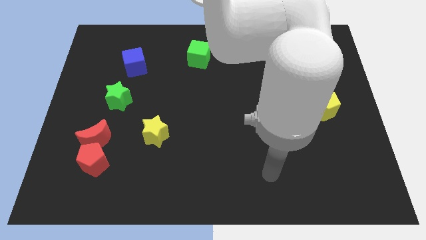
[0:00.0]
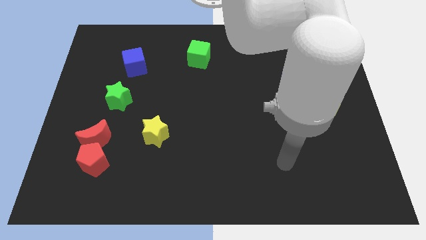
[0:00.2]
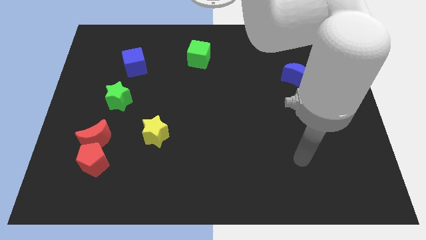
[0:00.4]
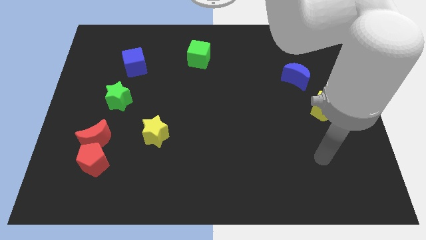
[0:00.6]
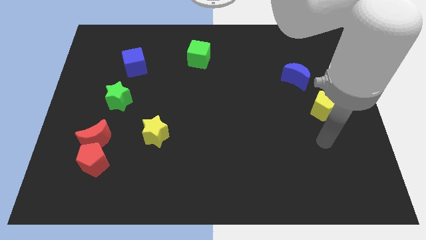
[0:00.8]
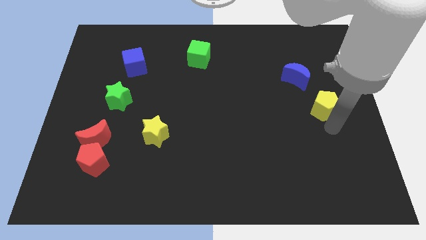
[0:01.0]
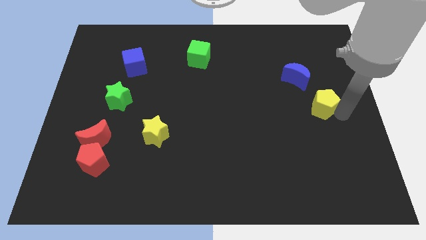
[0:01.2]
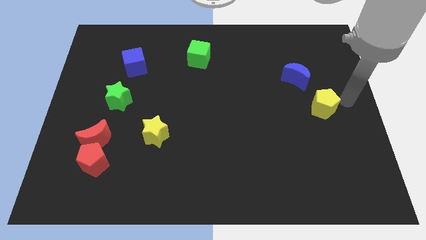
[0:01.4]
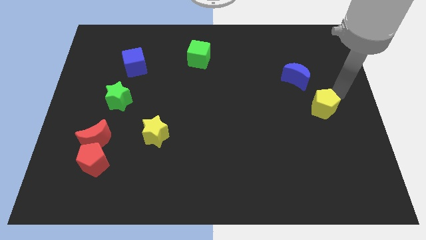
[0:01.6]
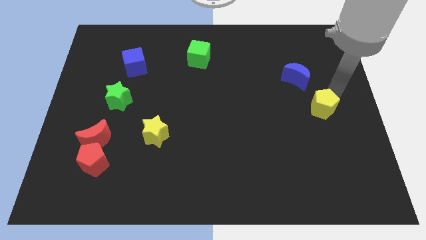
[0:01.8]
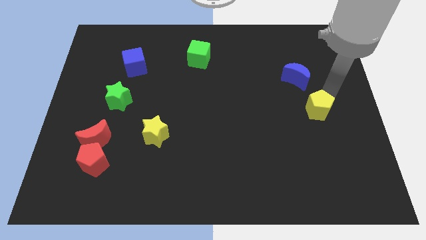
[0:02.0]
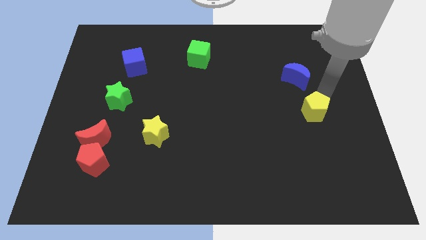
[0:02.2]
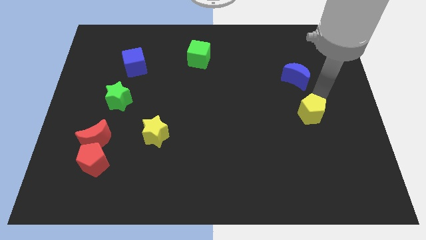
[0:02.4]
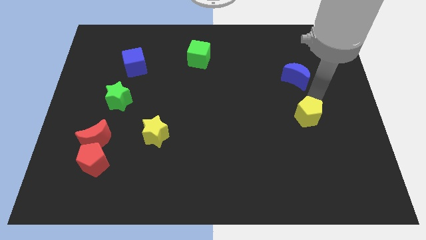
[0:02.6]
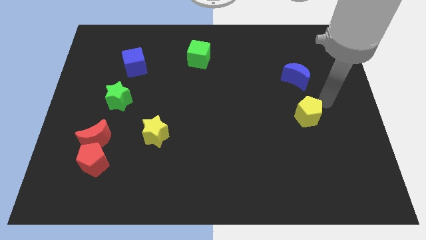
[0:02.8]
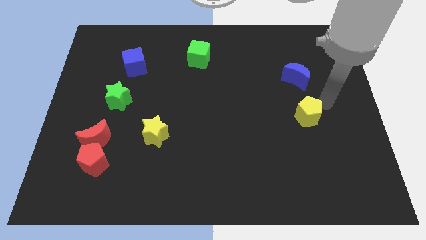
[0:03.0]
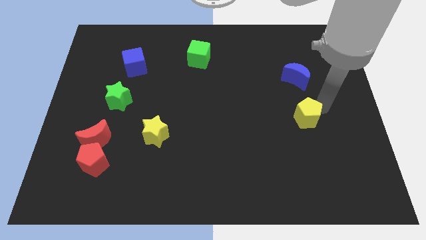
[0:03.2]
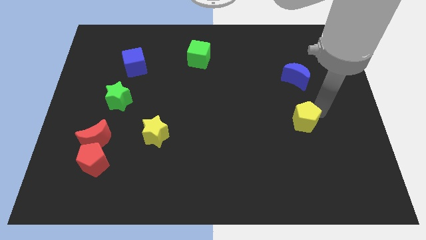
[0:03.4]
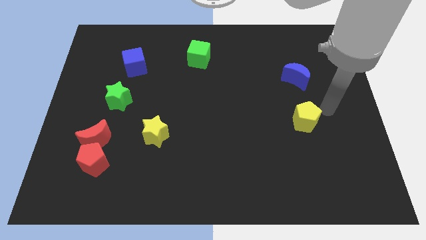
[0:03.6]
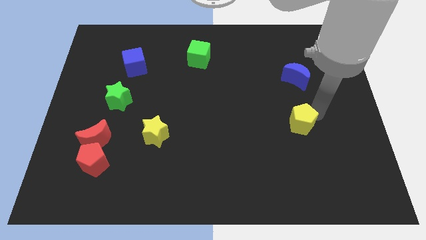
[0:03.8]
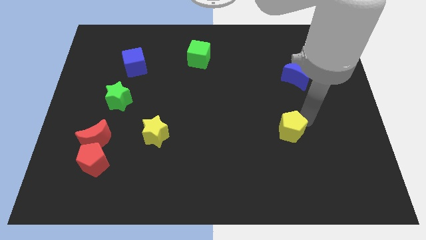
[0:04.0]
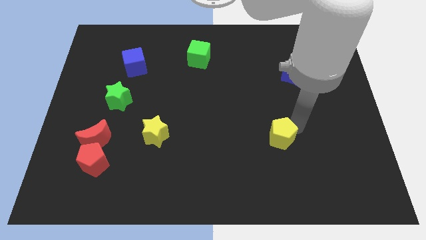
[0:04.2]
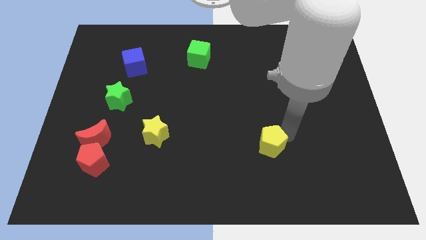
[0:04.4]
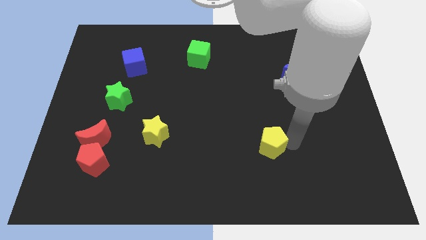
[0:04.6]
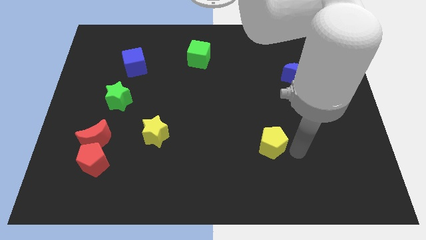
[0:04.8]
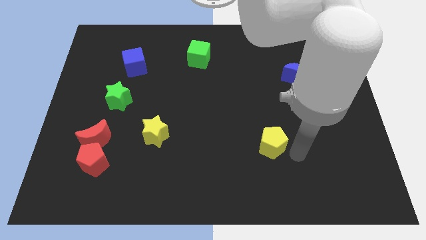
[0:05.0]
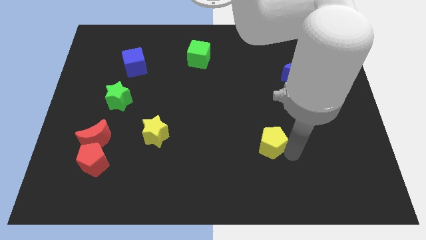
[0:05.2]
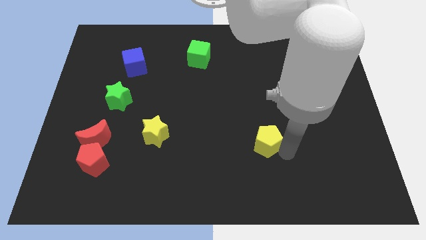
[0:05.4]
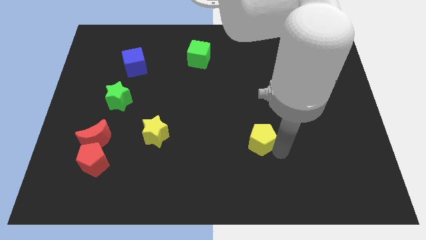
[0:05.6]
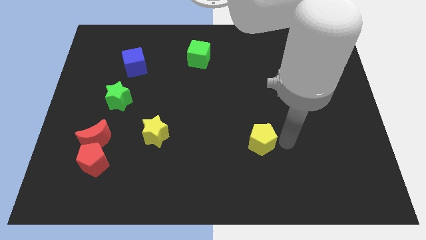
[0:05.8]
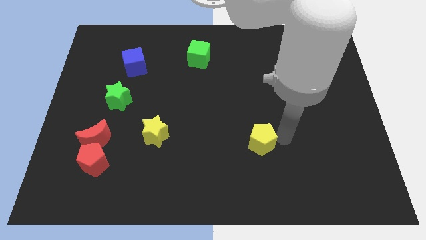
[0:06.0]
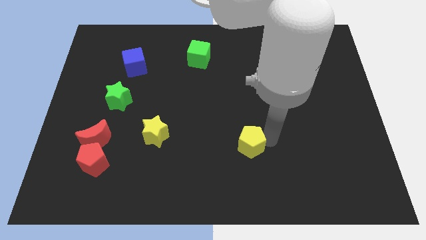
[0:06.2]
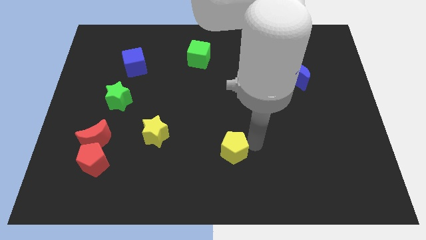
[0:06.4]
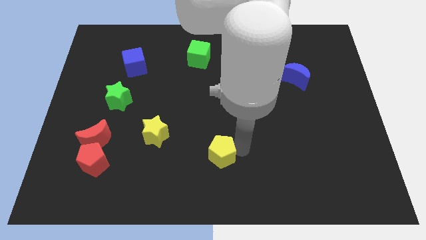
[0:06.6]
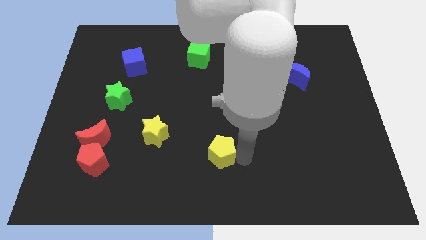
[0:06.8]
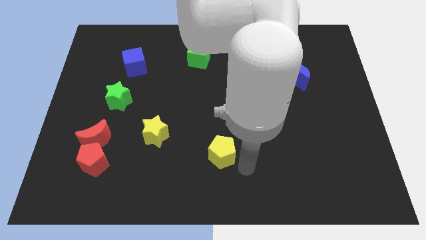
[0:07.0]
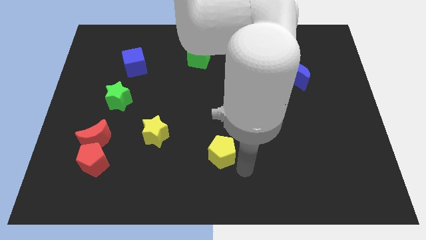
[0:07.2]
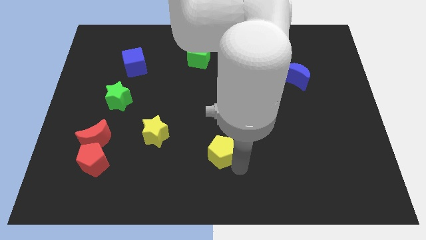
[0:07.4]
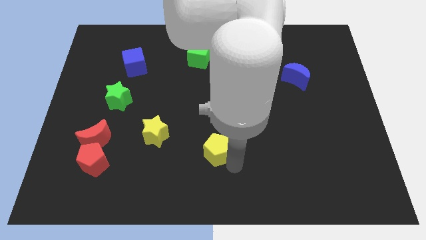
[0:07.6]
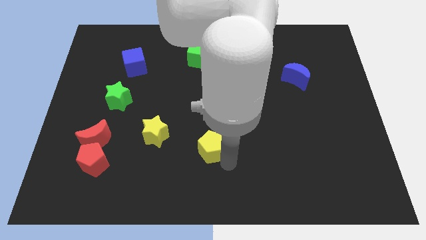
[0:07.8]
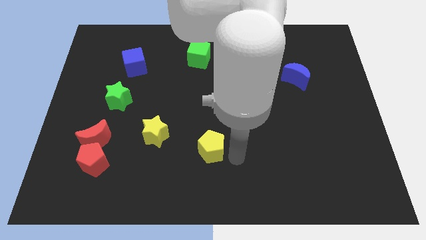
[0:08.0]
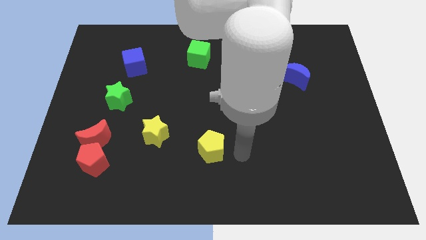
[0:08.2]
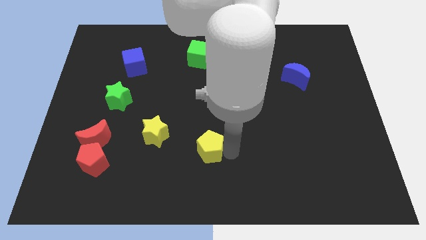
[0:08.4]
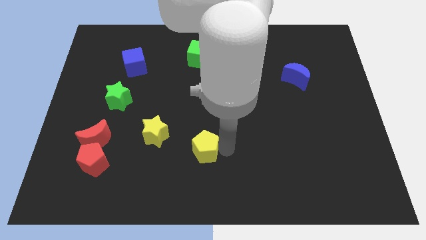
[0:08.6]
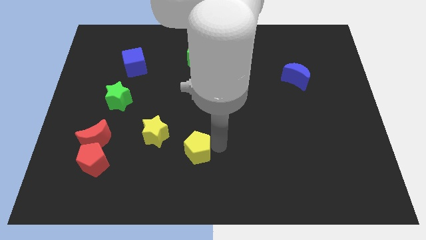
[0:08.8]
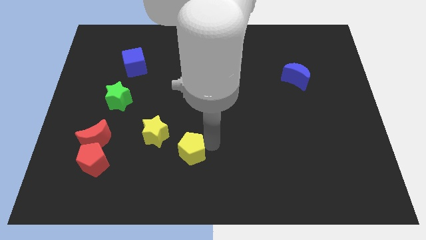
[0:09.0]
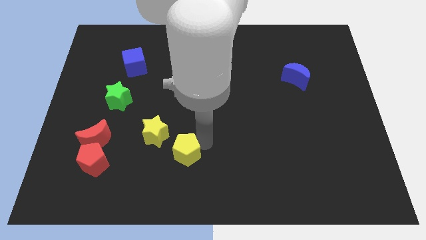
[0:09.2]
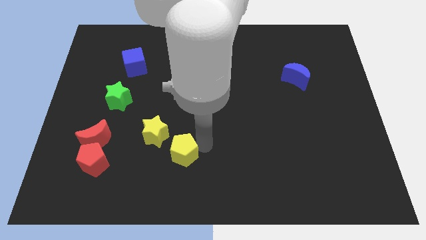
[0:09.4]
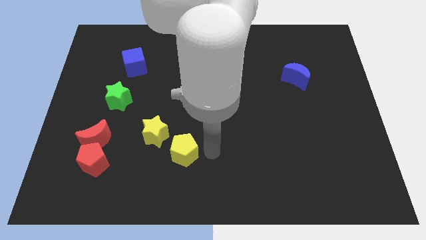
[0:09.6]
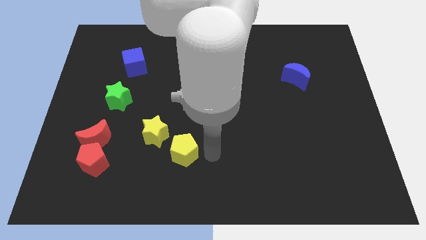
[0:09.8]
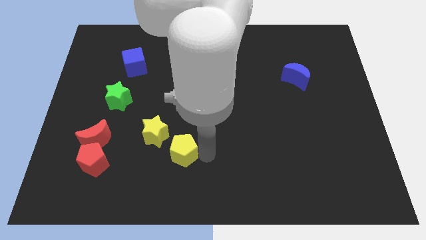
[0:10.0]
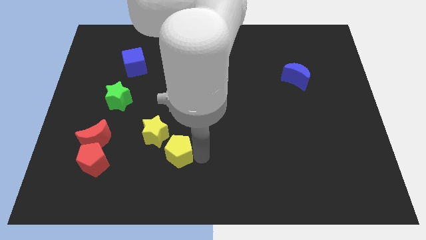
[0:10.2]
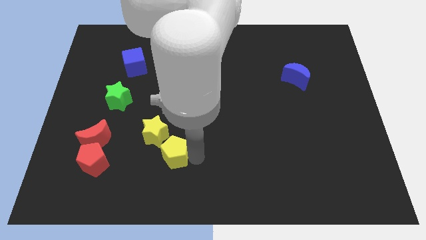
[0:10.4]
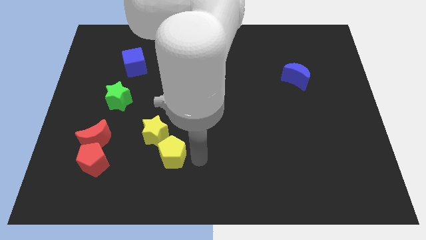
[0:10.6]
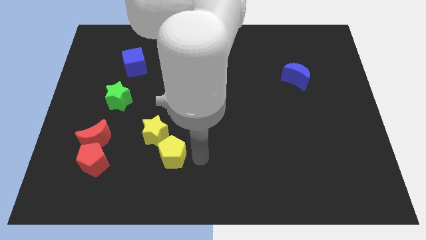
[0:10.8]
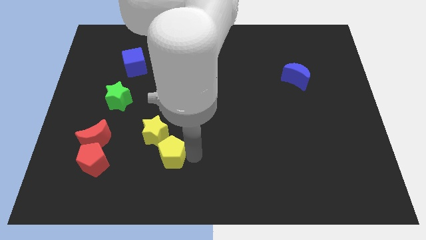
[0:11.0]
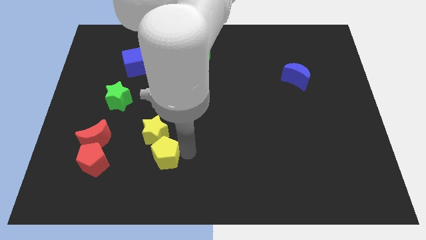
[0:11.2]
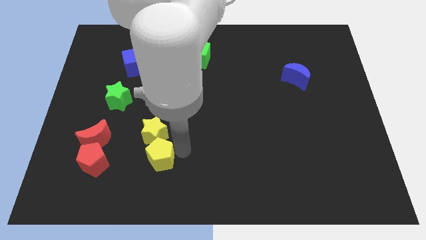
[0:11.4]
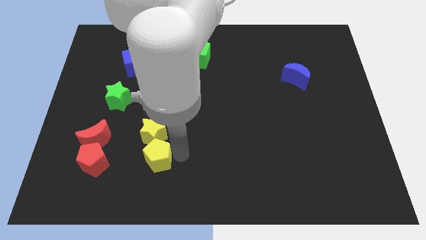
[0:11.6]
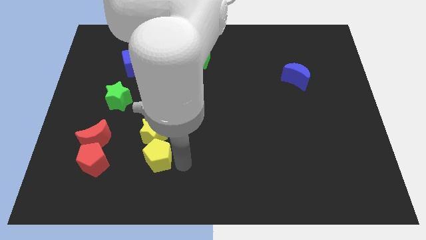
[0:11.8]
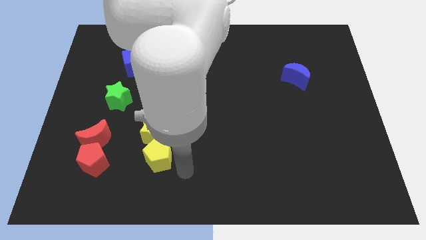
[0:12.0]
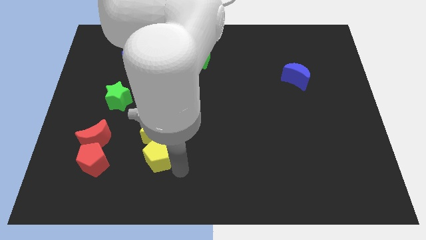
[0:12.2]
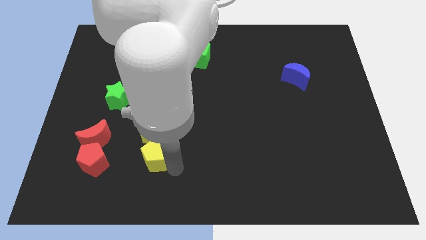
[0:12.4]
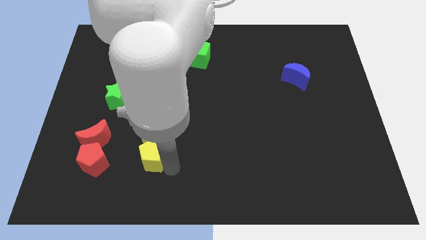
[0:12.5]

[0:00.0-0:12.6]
move the yellow pentagon to the bottom left of the yellow star

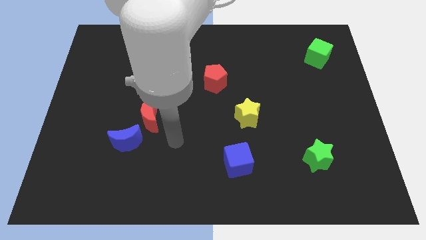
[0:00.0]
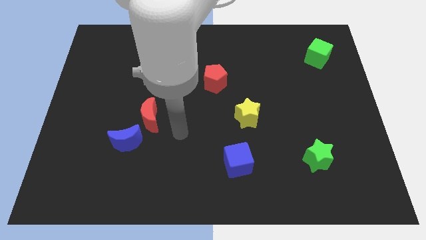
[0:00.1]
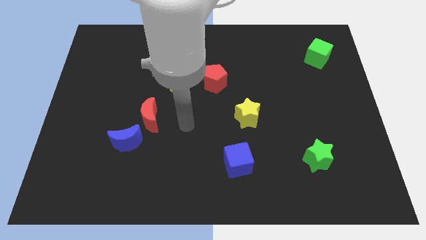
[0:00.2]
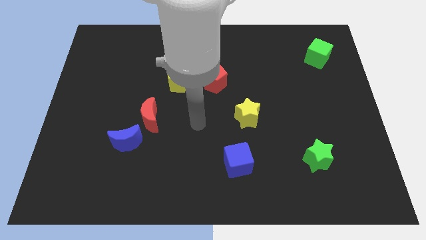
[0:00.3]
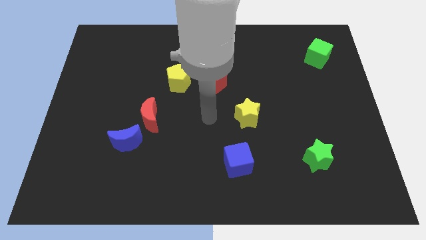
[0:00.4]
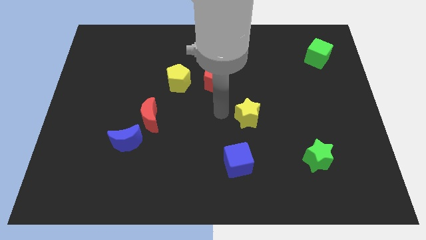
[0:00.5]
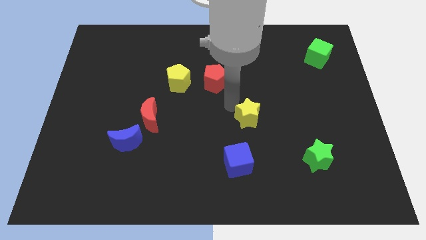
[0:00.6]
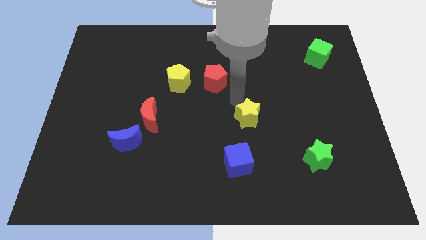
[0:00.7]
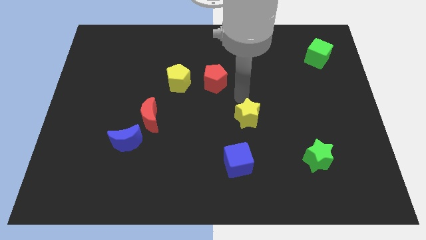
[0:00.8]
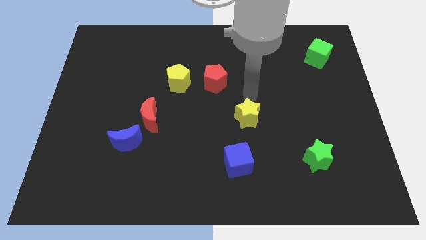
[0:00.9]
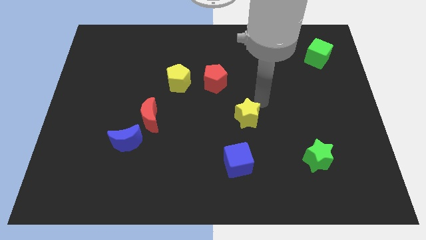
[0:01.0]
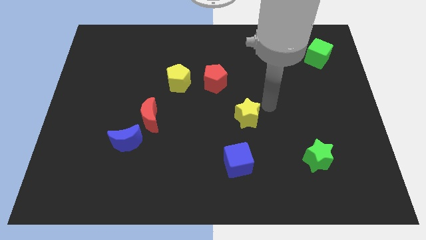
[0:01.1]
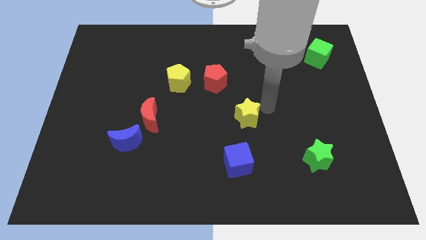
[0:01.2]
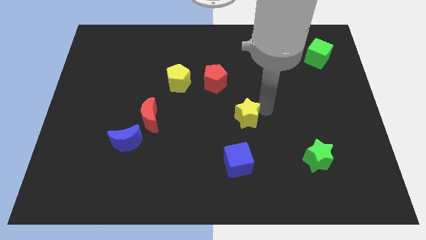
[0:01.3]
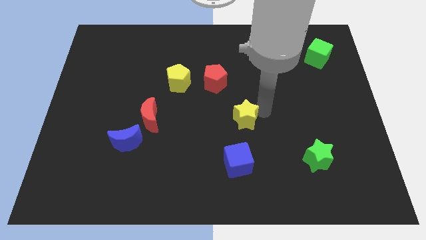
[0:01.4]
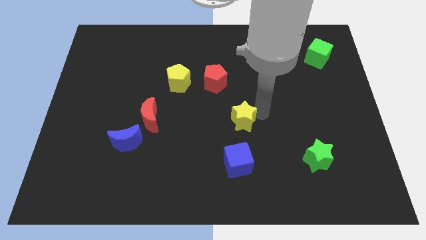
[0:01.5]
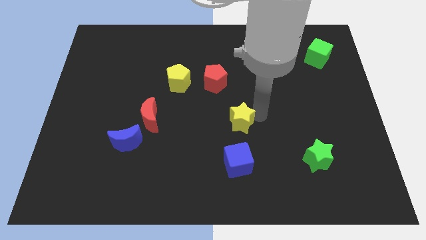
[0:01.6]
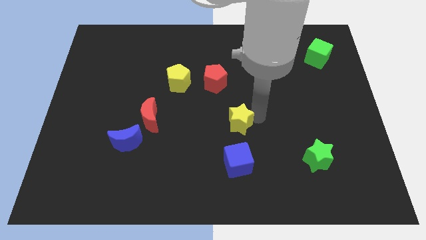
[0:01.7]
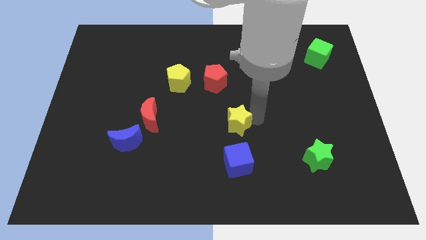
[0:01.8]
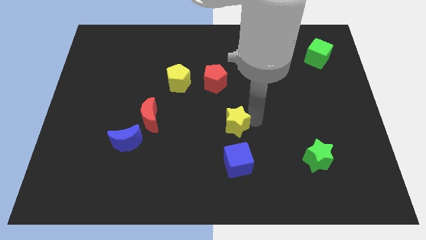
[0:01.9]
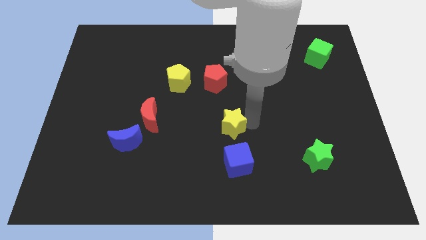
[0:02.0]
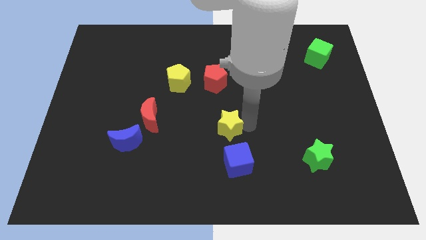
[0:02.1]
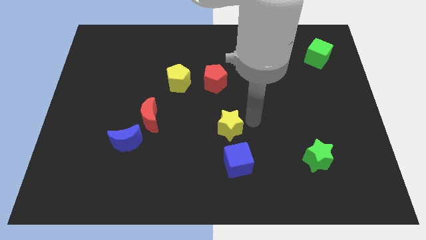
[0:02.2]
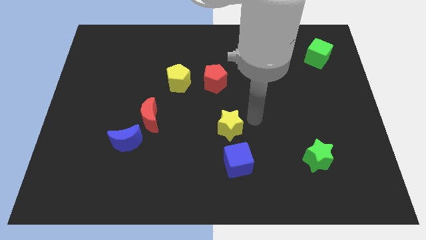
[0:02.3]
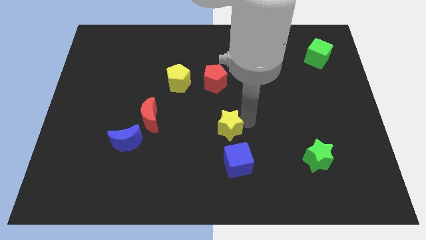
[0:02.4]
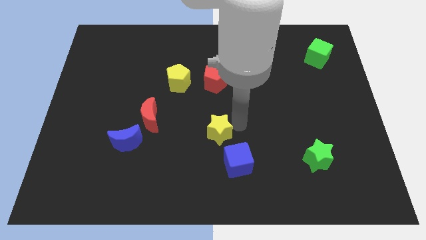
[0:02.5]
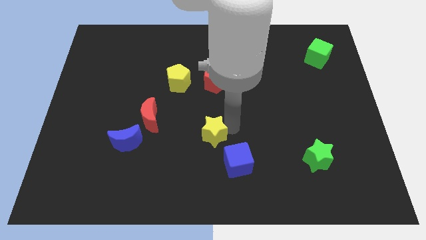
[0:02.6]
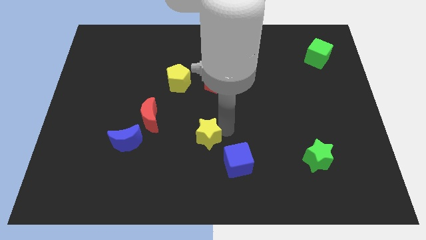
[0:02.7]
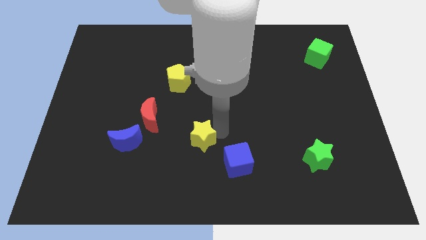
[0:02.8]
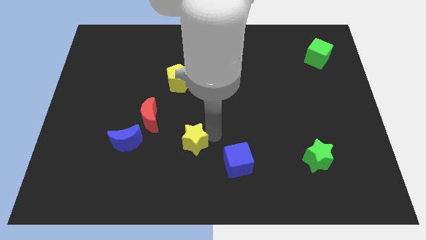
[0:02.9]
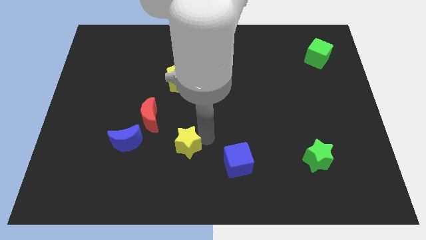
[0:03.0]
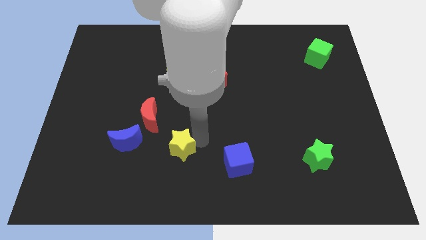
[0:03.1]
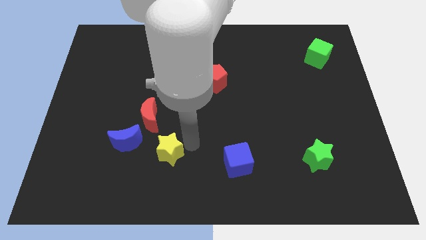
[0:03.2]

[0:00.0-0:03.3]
push the yellow star to the bottom right of the blue moon
